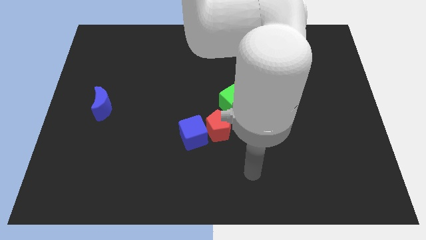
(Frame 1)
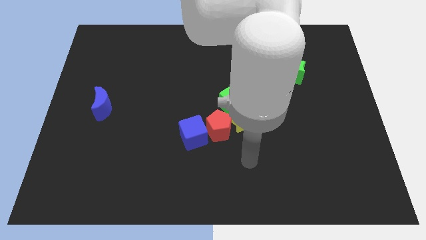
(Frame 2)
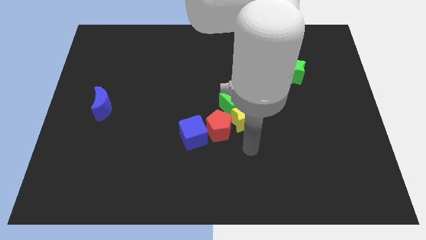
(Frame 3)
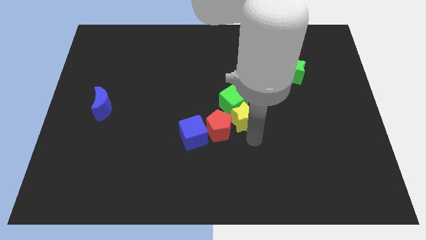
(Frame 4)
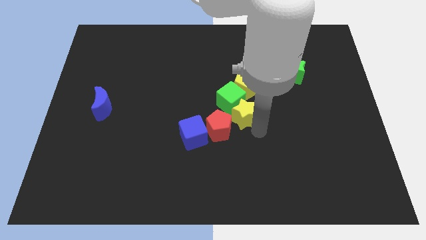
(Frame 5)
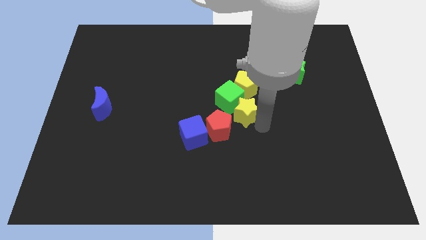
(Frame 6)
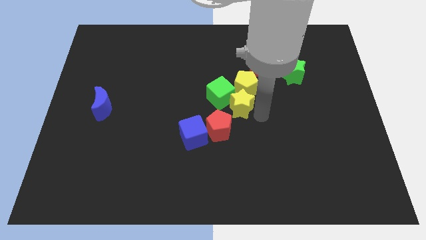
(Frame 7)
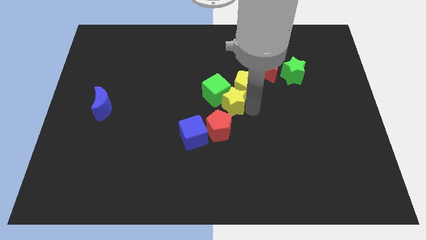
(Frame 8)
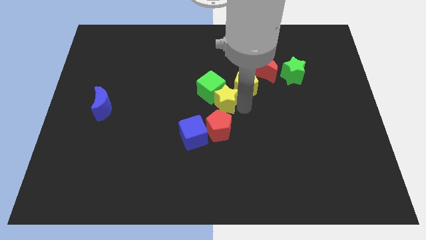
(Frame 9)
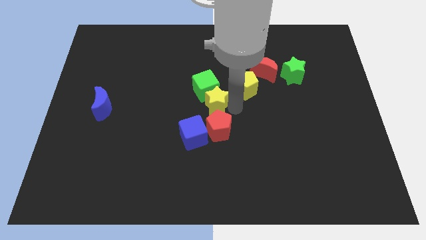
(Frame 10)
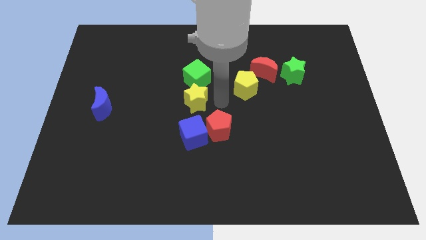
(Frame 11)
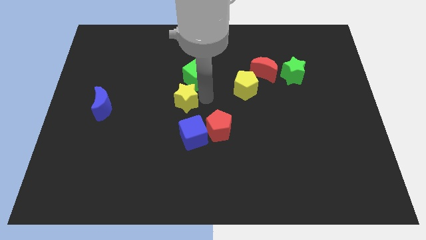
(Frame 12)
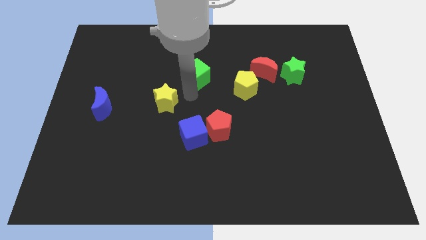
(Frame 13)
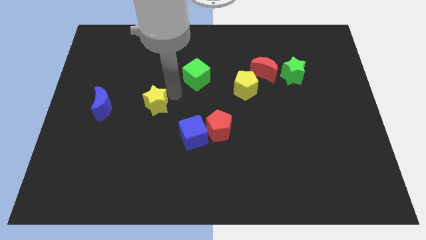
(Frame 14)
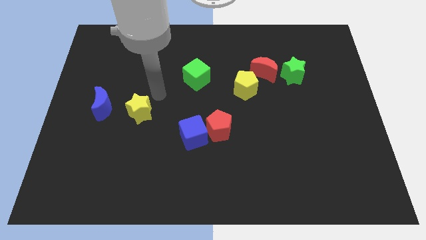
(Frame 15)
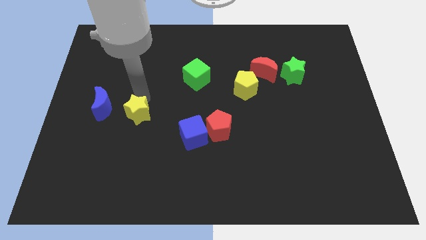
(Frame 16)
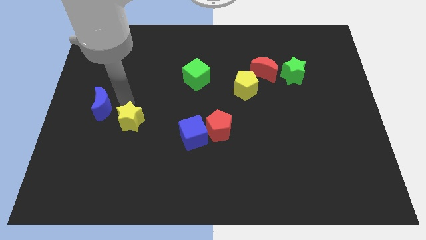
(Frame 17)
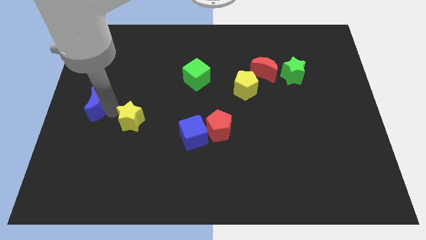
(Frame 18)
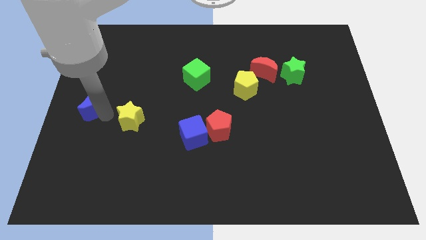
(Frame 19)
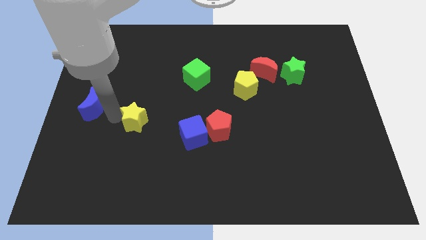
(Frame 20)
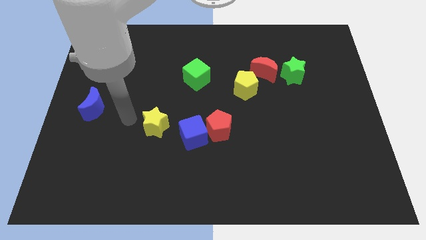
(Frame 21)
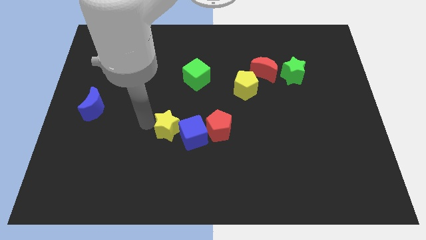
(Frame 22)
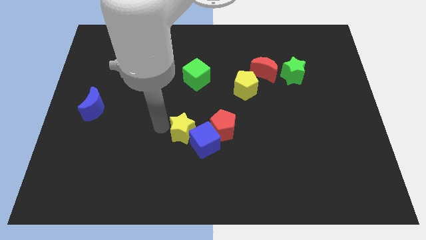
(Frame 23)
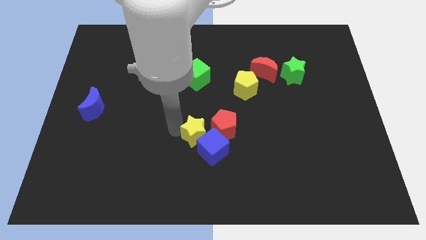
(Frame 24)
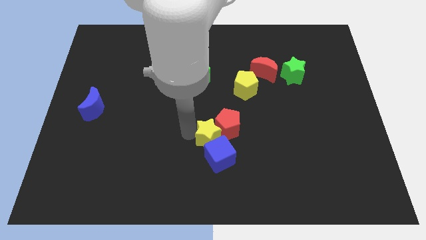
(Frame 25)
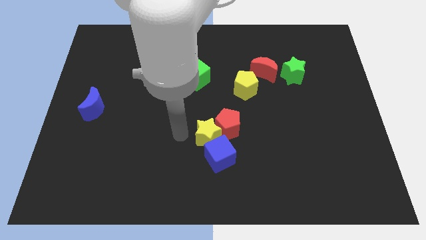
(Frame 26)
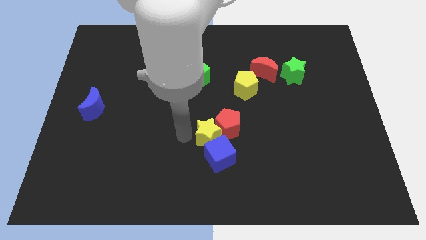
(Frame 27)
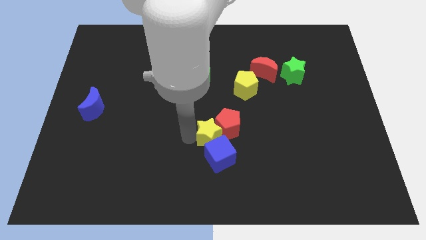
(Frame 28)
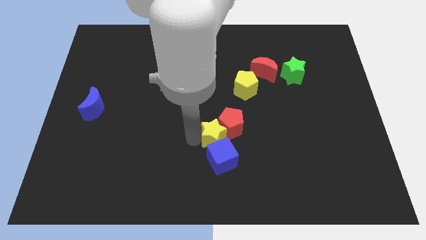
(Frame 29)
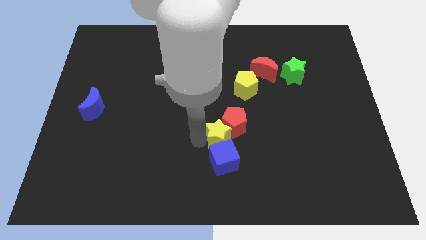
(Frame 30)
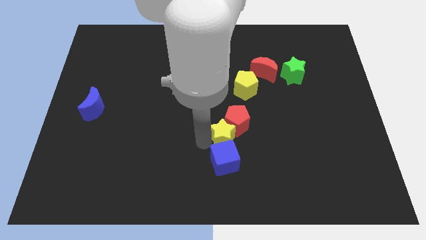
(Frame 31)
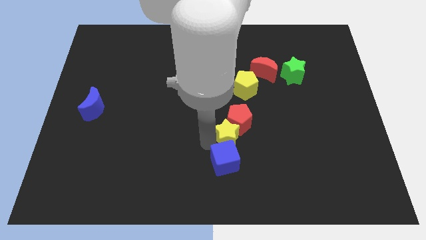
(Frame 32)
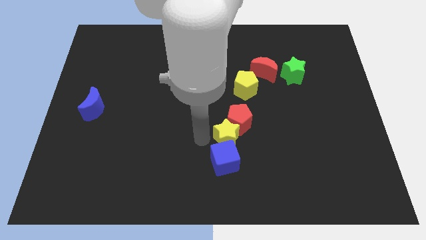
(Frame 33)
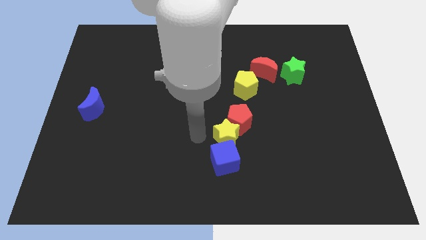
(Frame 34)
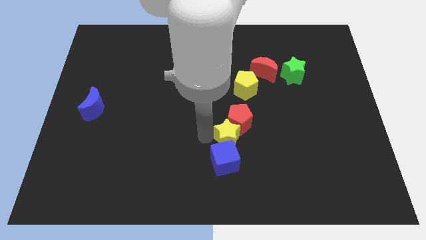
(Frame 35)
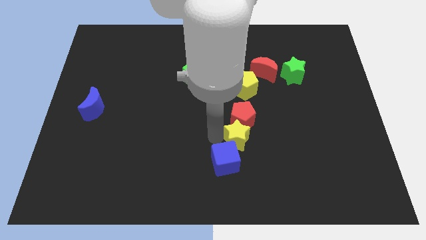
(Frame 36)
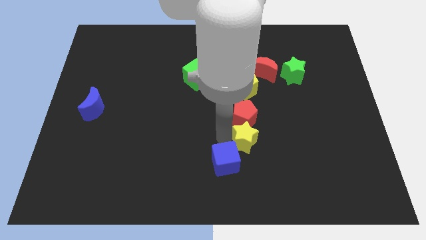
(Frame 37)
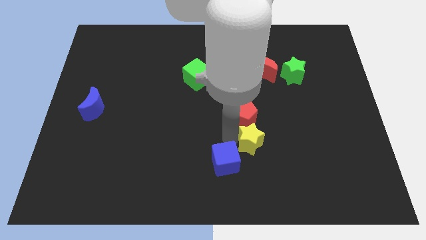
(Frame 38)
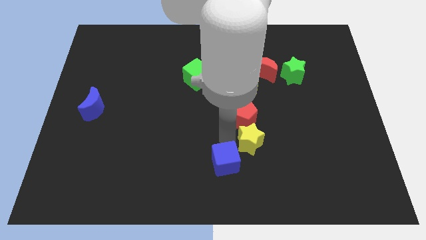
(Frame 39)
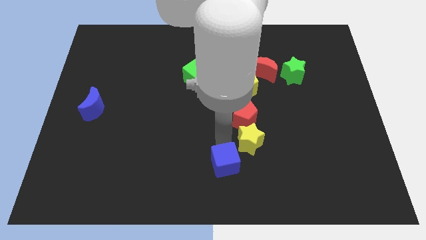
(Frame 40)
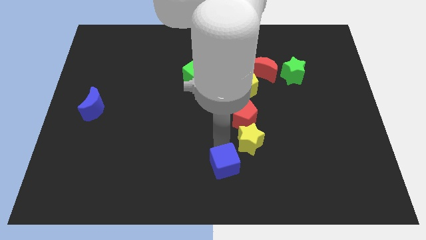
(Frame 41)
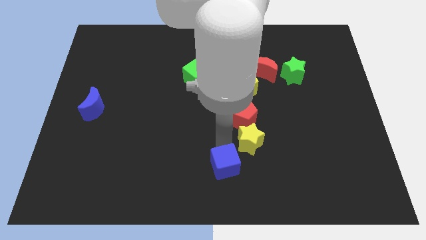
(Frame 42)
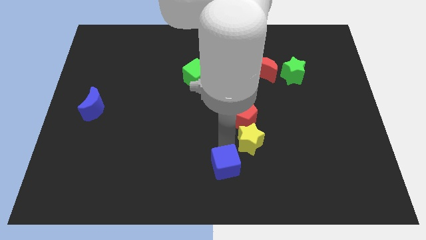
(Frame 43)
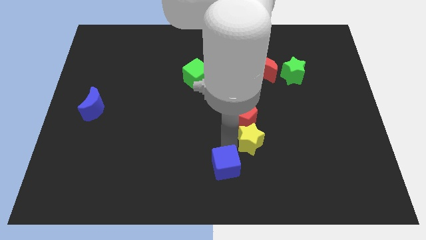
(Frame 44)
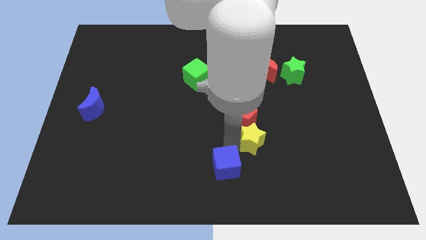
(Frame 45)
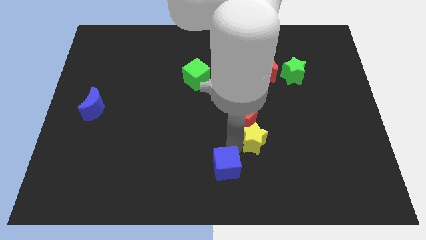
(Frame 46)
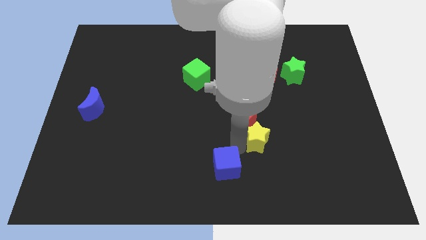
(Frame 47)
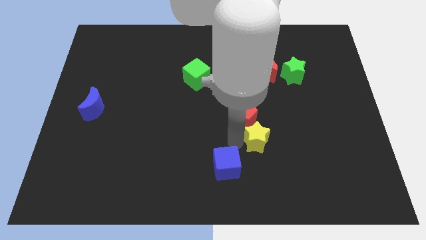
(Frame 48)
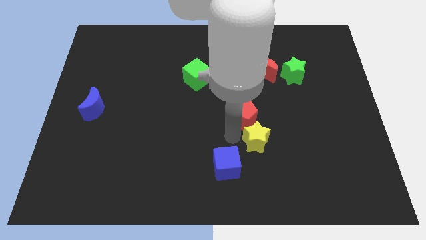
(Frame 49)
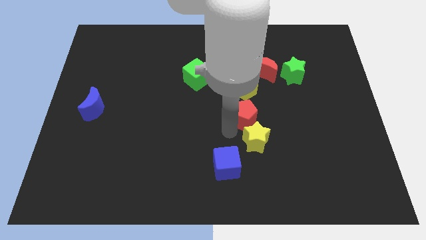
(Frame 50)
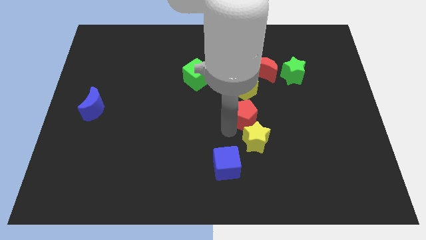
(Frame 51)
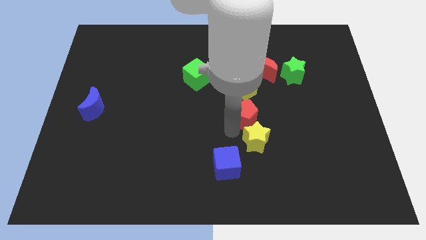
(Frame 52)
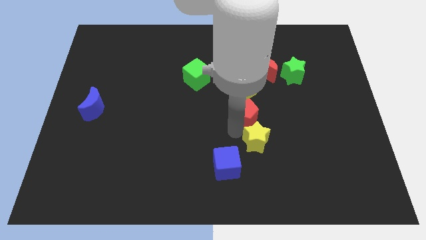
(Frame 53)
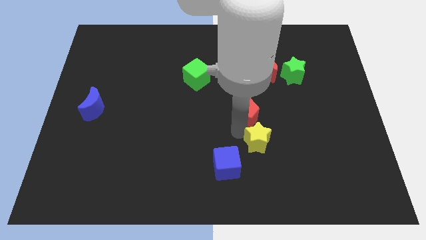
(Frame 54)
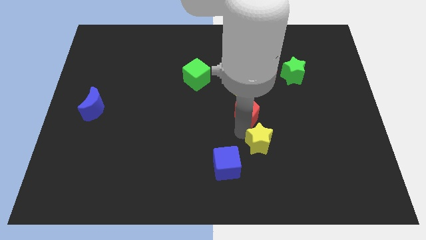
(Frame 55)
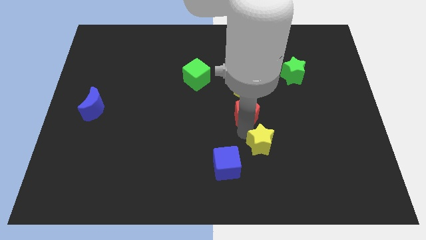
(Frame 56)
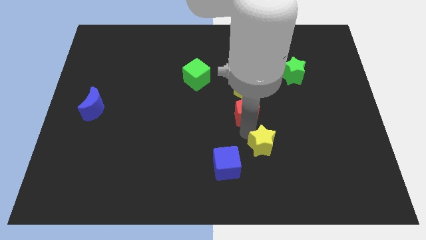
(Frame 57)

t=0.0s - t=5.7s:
slightly move the yellow star down and to the right diagonally

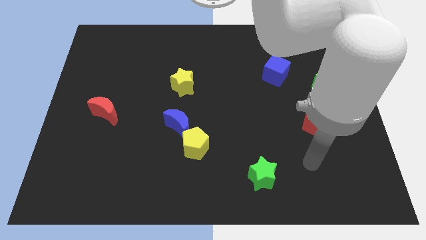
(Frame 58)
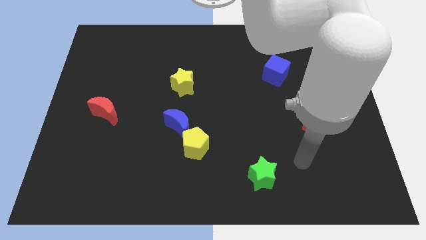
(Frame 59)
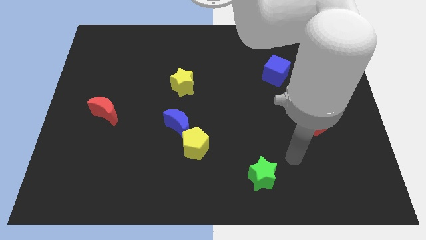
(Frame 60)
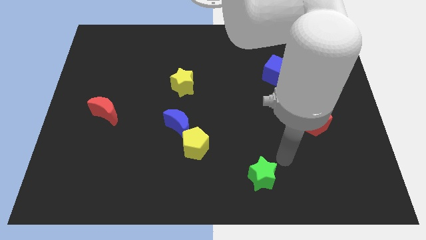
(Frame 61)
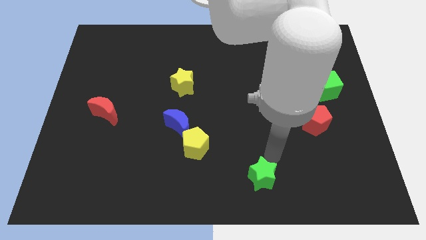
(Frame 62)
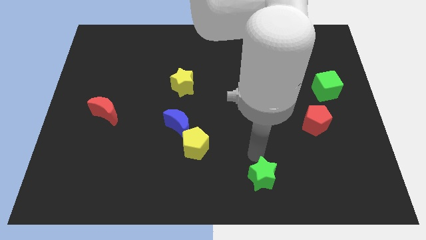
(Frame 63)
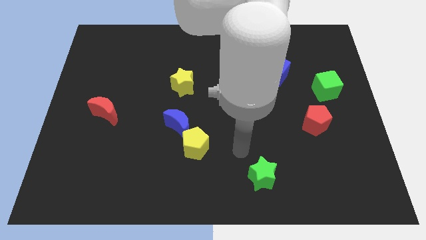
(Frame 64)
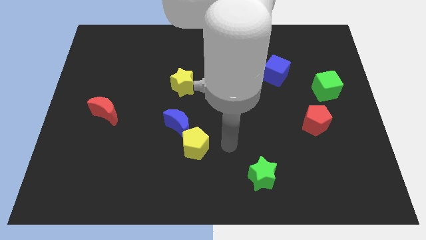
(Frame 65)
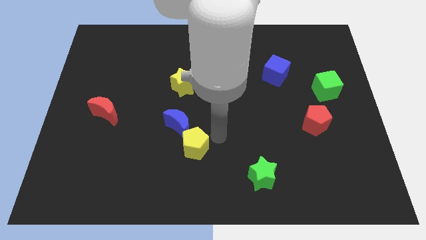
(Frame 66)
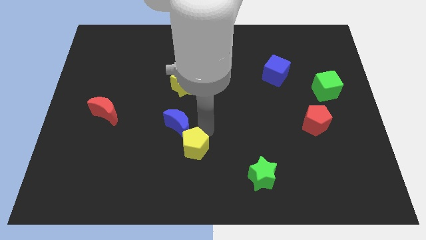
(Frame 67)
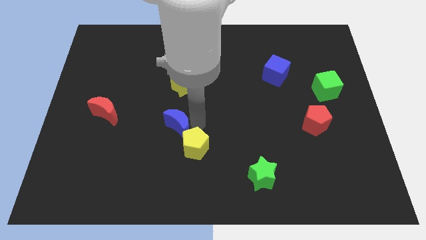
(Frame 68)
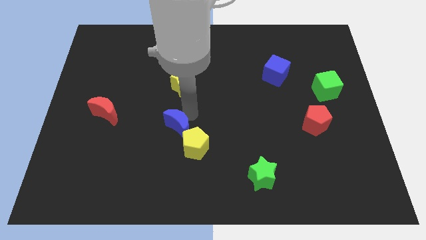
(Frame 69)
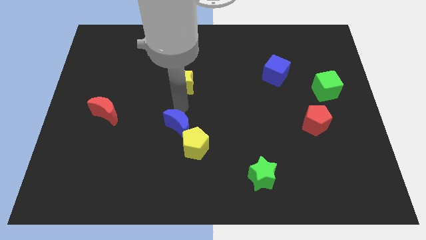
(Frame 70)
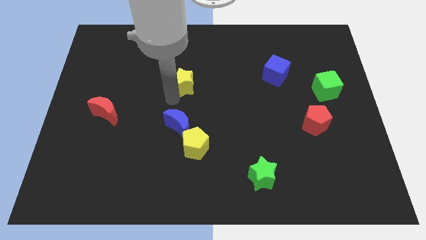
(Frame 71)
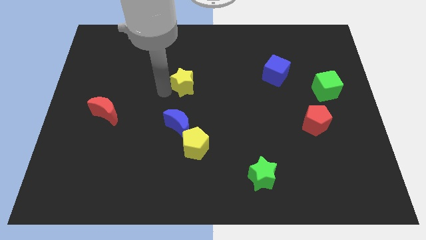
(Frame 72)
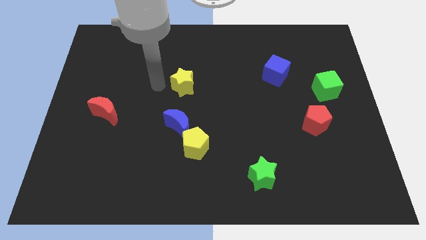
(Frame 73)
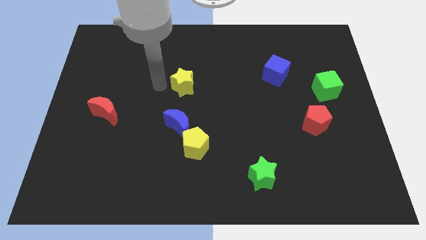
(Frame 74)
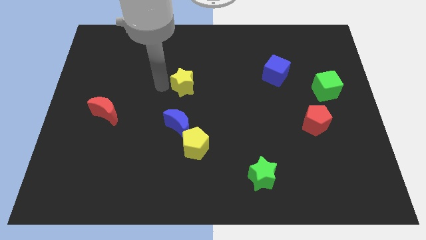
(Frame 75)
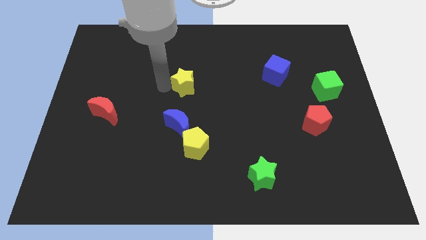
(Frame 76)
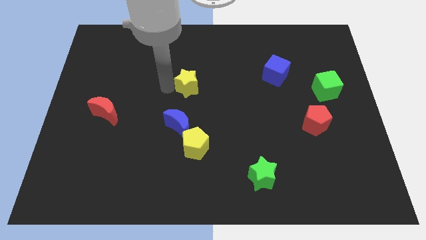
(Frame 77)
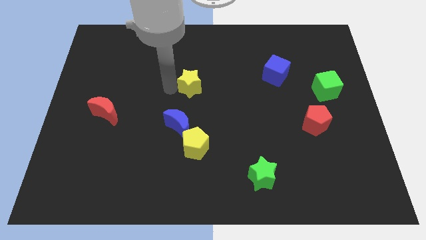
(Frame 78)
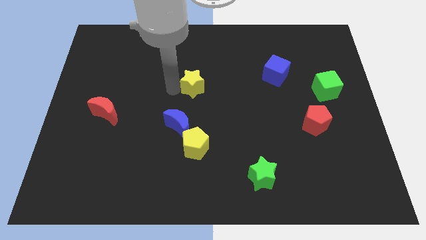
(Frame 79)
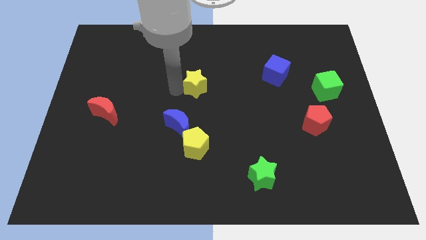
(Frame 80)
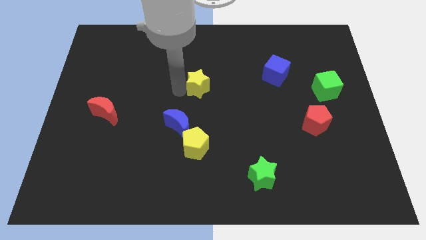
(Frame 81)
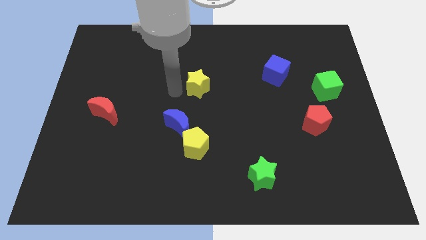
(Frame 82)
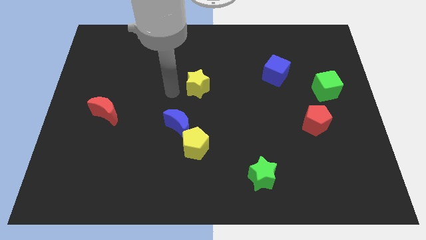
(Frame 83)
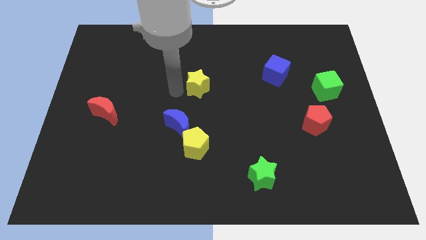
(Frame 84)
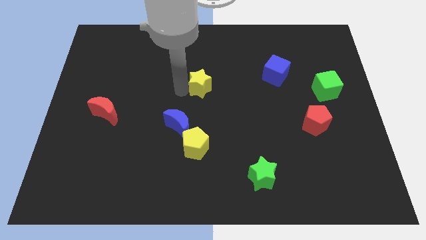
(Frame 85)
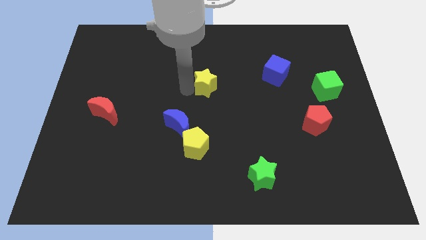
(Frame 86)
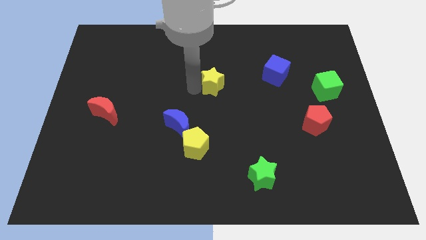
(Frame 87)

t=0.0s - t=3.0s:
push the yellow star a little bit right
